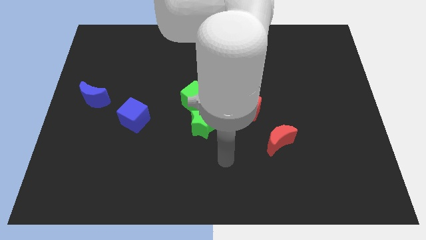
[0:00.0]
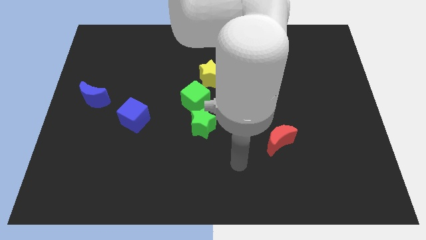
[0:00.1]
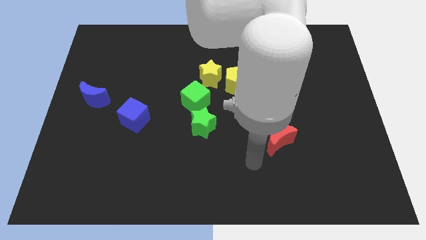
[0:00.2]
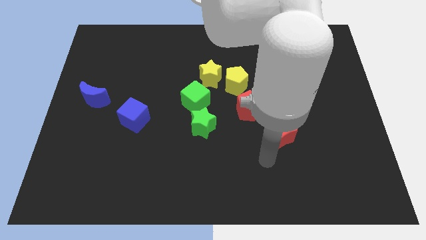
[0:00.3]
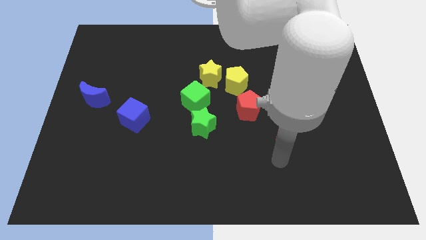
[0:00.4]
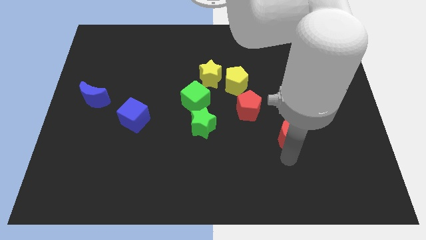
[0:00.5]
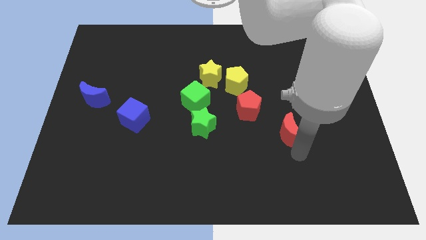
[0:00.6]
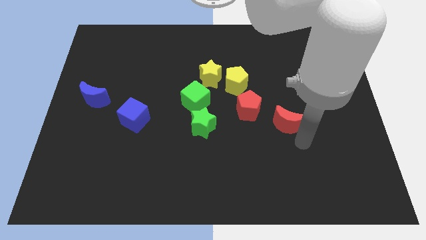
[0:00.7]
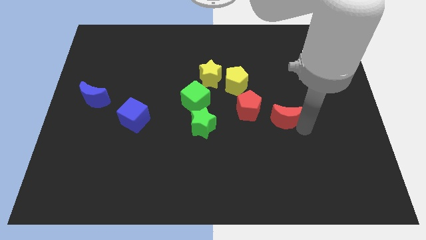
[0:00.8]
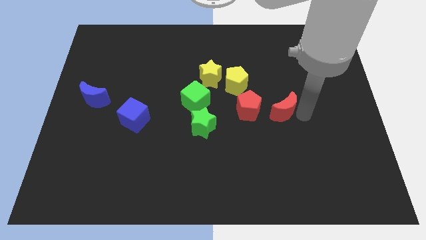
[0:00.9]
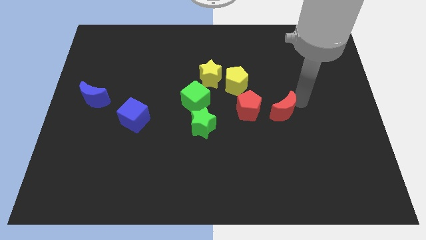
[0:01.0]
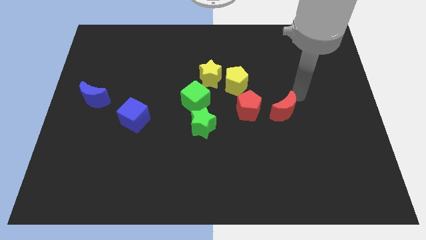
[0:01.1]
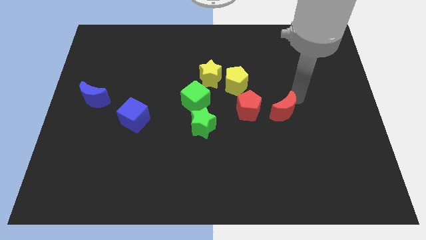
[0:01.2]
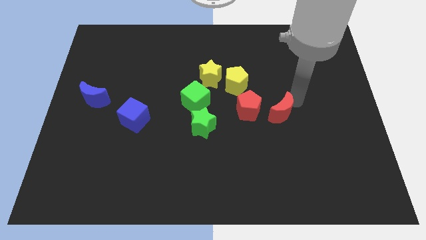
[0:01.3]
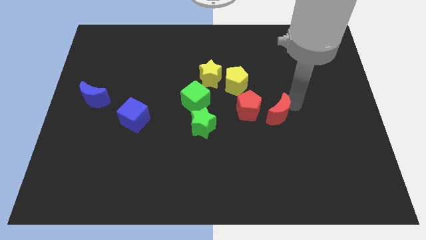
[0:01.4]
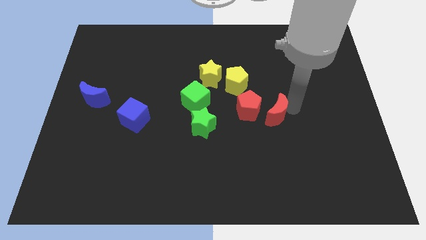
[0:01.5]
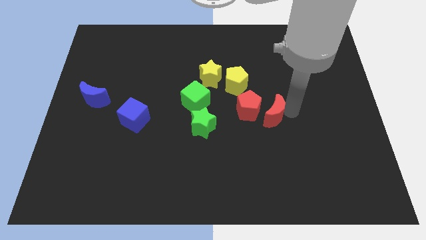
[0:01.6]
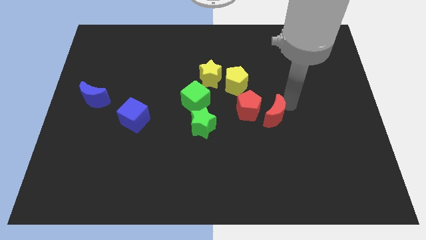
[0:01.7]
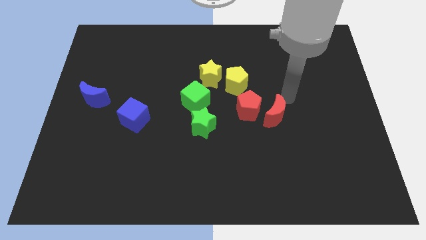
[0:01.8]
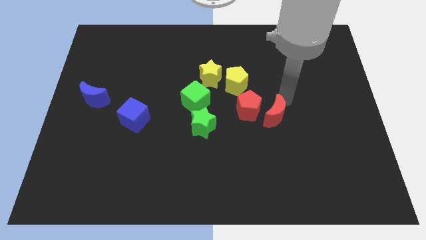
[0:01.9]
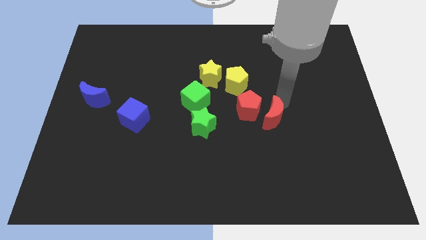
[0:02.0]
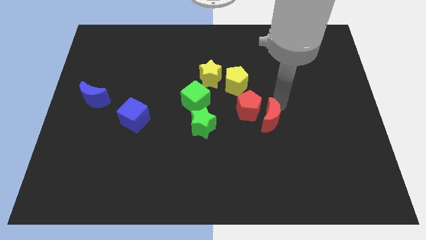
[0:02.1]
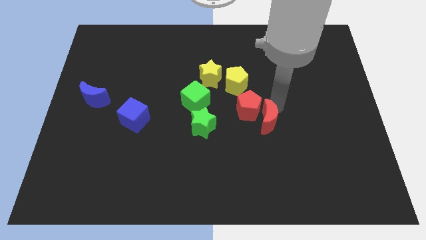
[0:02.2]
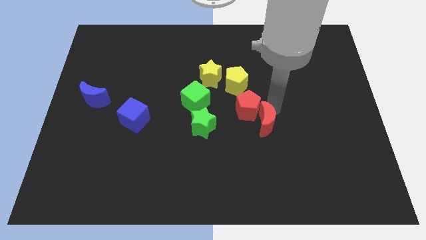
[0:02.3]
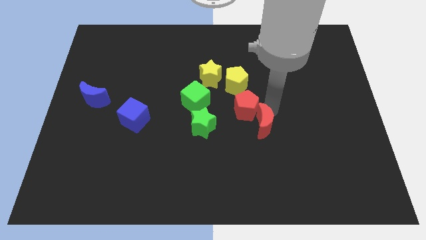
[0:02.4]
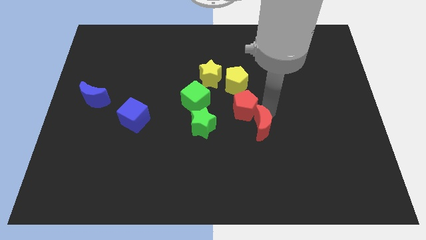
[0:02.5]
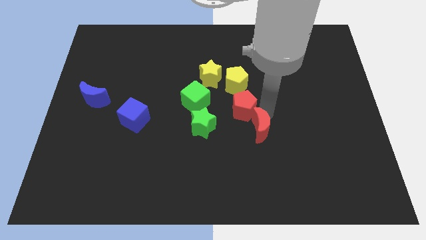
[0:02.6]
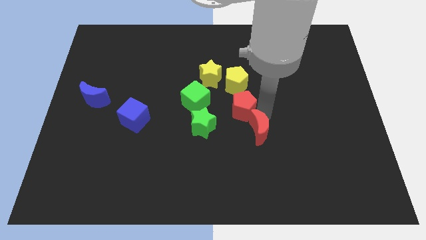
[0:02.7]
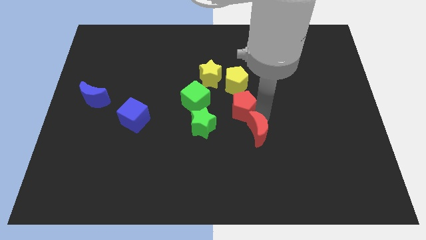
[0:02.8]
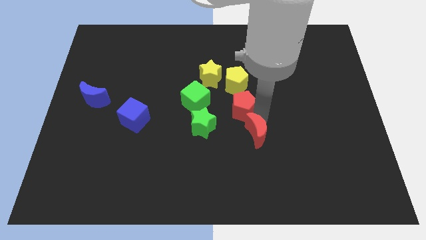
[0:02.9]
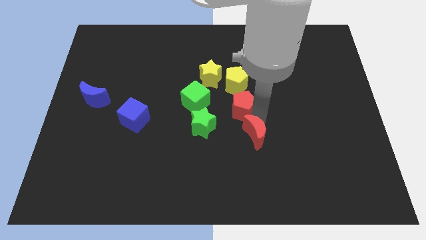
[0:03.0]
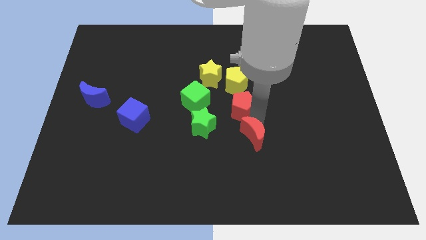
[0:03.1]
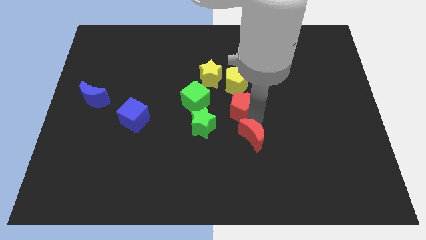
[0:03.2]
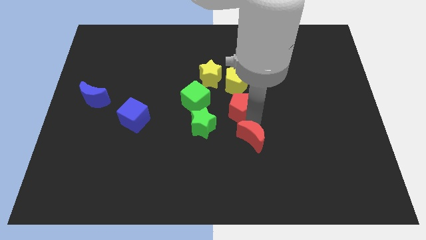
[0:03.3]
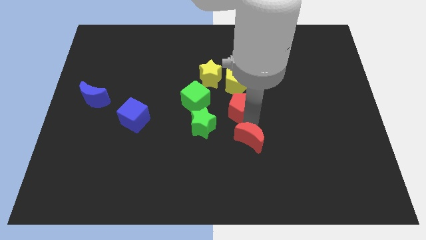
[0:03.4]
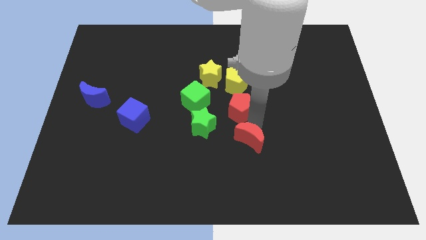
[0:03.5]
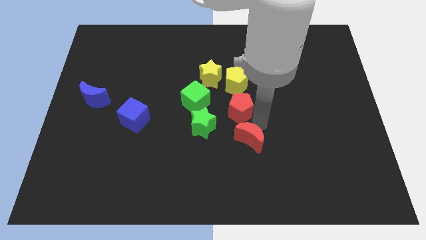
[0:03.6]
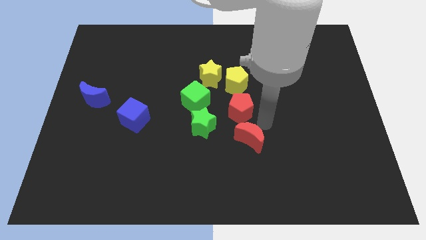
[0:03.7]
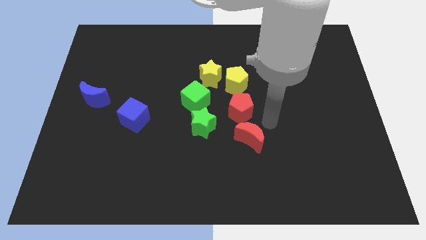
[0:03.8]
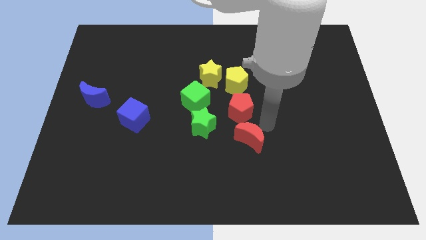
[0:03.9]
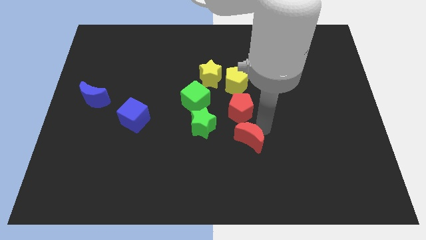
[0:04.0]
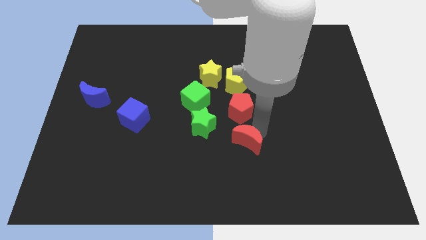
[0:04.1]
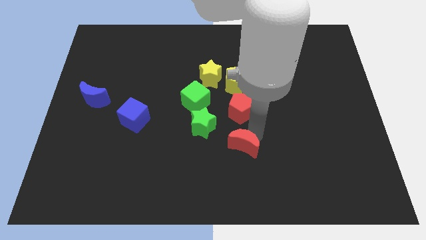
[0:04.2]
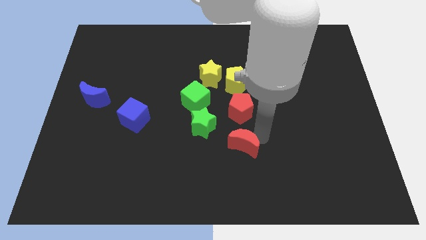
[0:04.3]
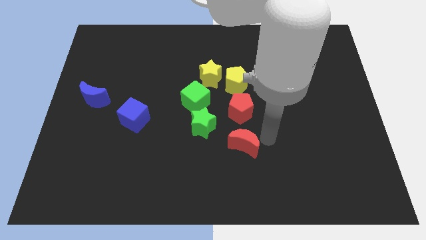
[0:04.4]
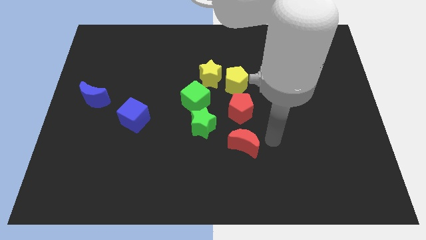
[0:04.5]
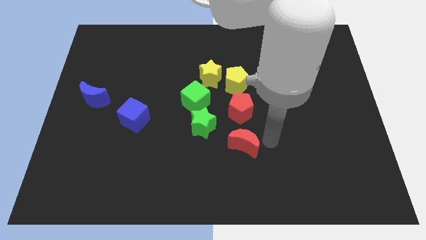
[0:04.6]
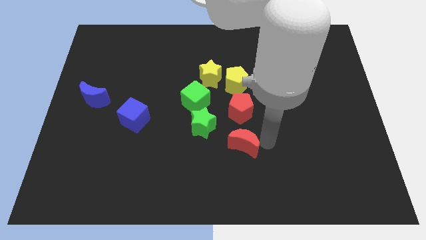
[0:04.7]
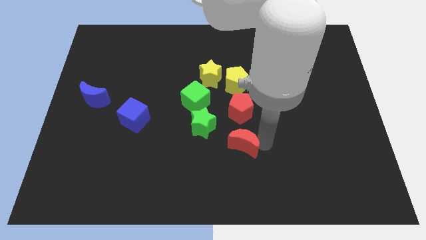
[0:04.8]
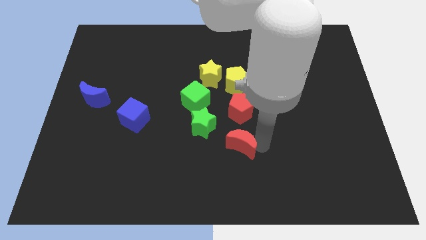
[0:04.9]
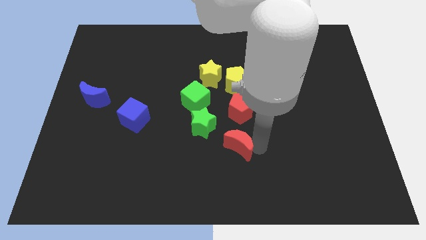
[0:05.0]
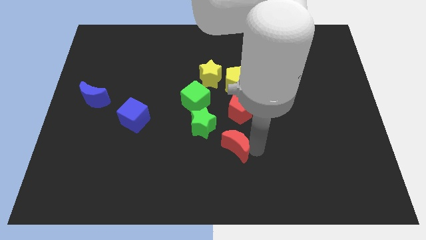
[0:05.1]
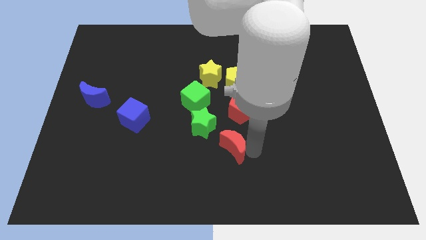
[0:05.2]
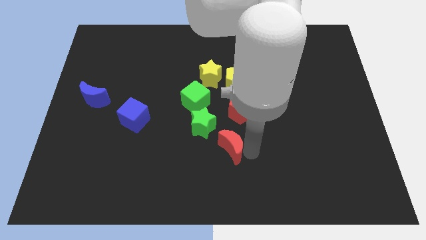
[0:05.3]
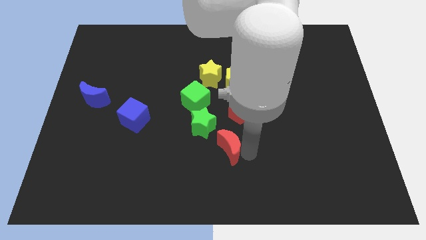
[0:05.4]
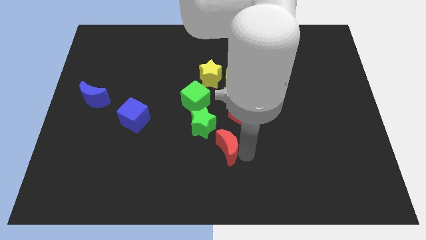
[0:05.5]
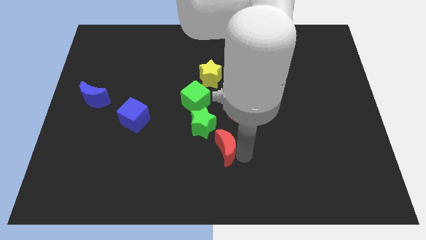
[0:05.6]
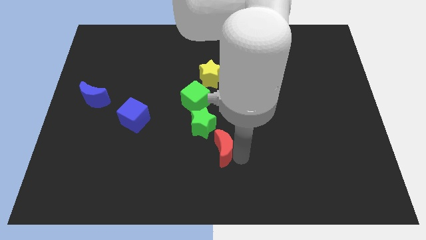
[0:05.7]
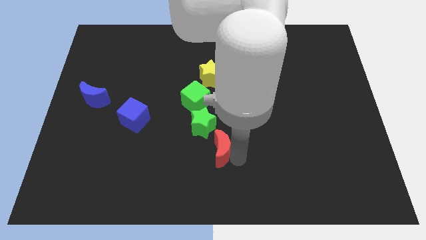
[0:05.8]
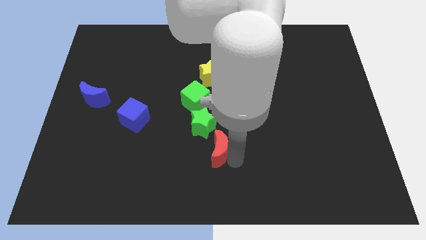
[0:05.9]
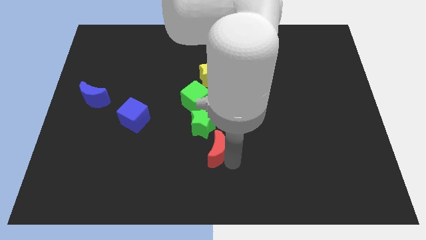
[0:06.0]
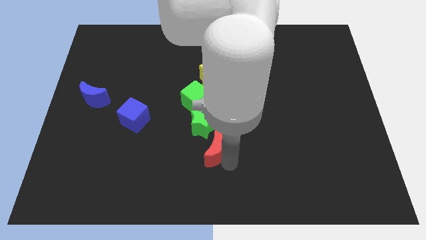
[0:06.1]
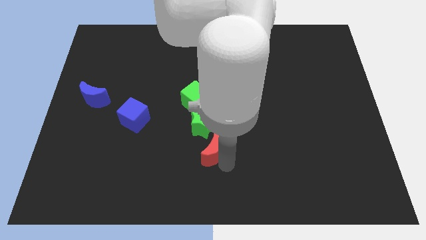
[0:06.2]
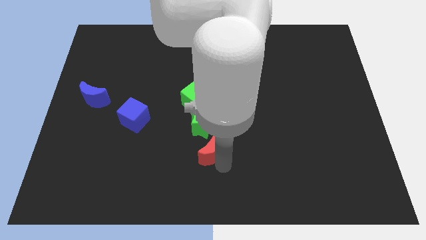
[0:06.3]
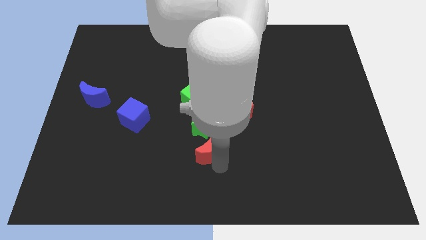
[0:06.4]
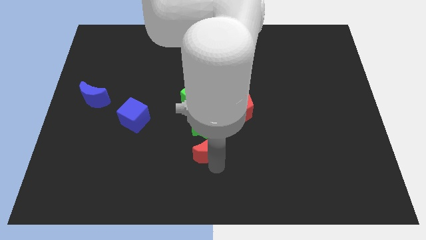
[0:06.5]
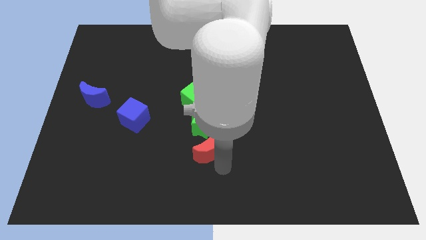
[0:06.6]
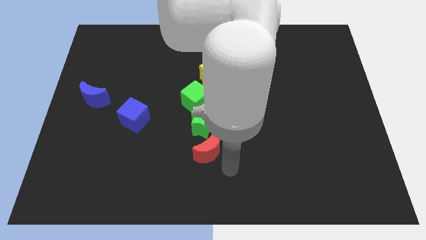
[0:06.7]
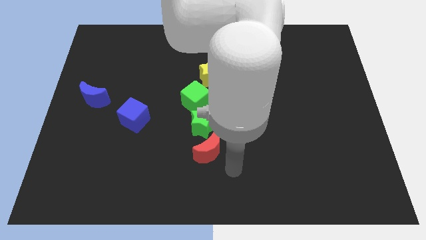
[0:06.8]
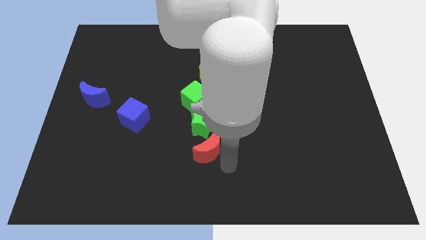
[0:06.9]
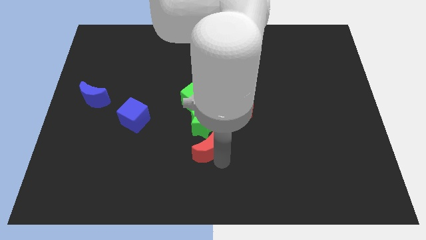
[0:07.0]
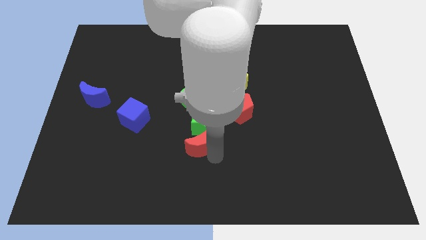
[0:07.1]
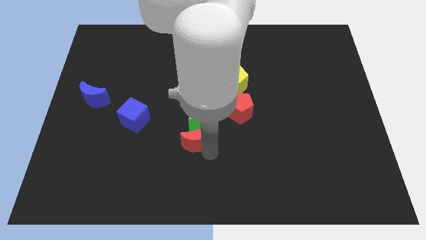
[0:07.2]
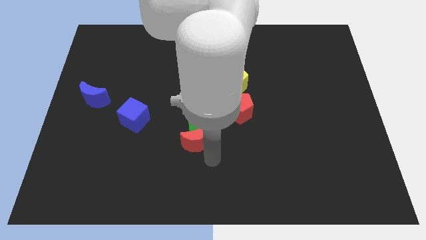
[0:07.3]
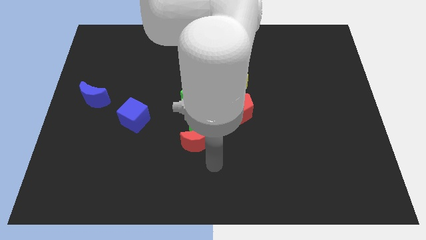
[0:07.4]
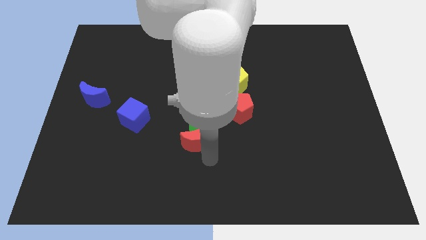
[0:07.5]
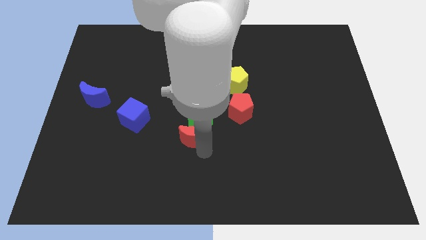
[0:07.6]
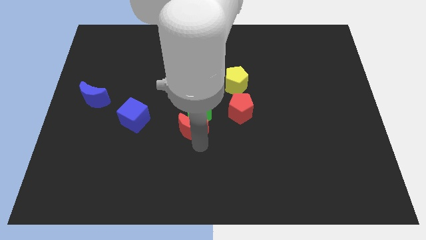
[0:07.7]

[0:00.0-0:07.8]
slide the red moon just right of the blue cube
